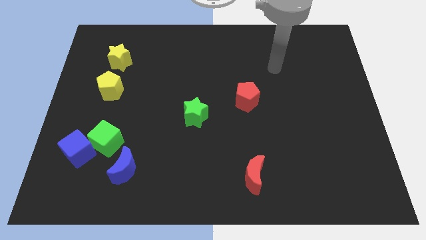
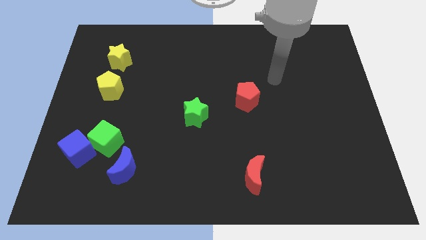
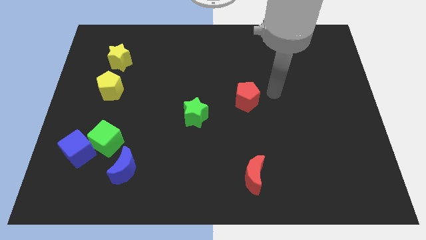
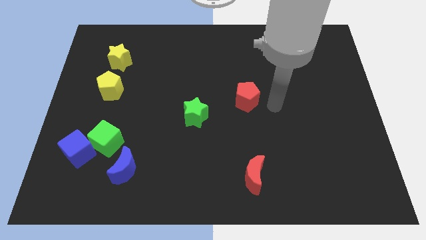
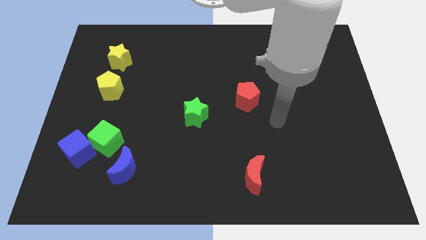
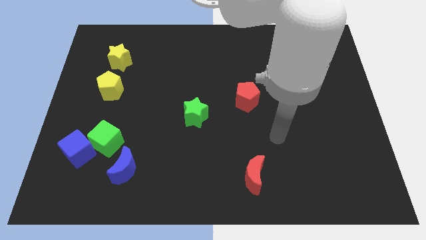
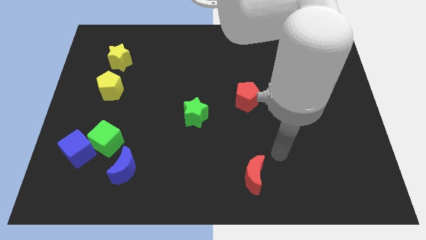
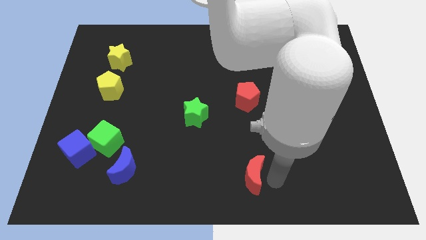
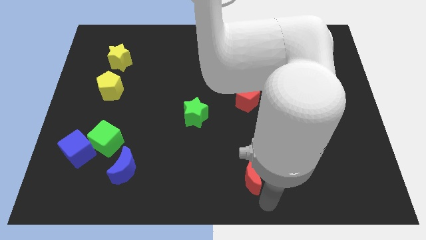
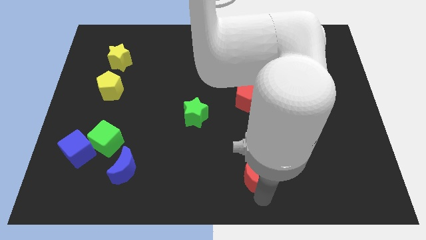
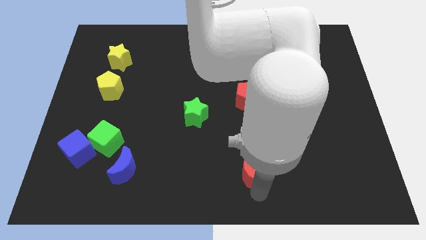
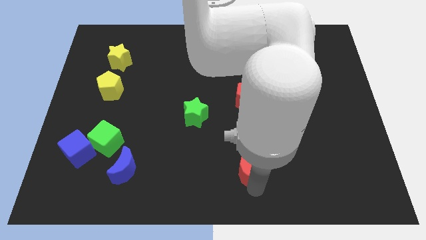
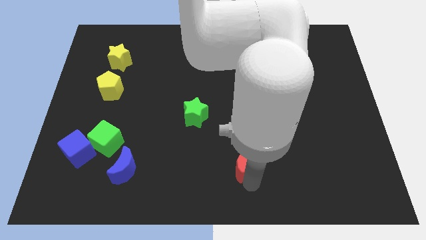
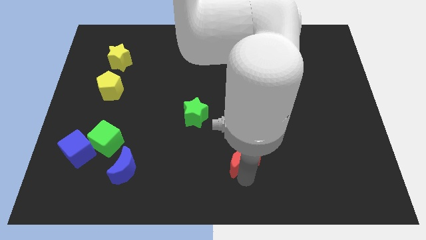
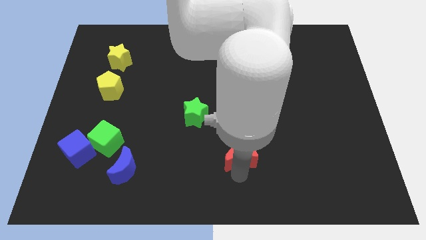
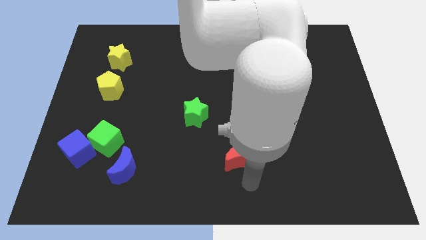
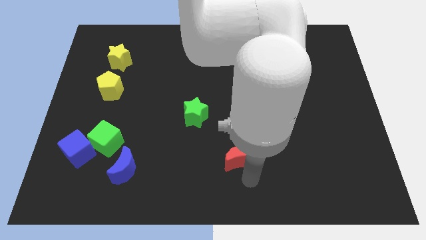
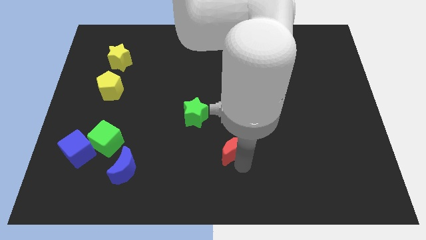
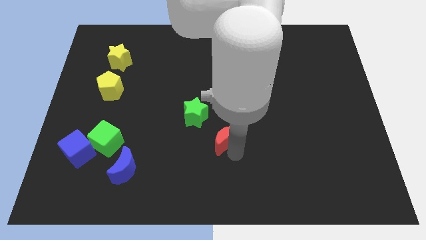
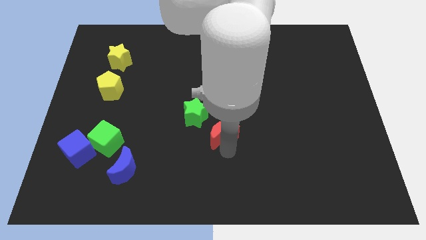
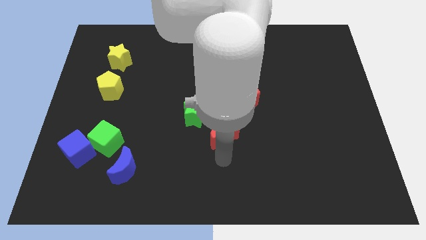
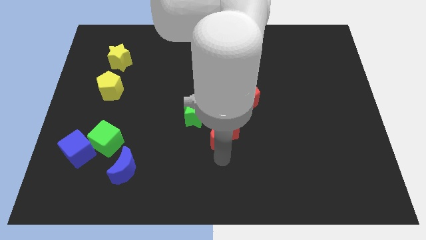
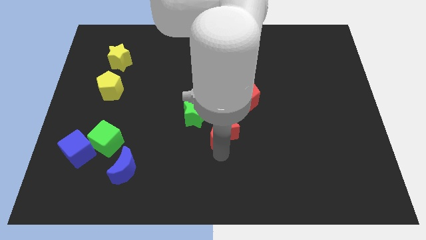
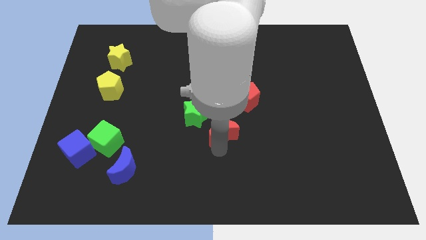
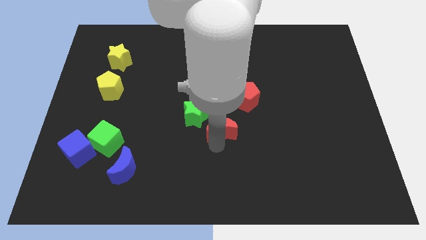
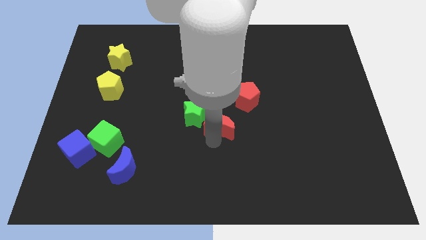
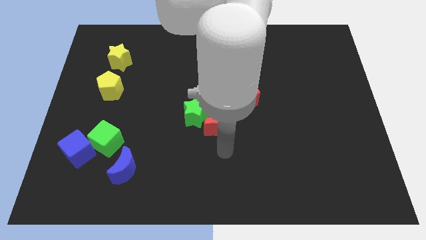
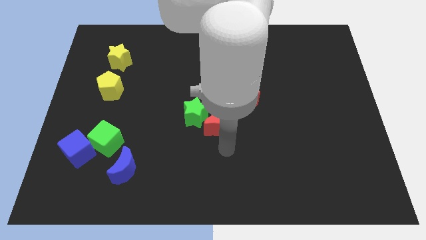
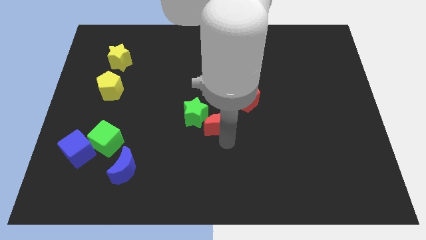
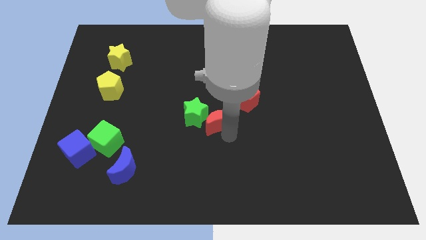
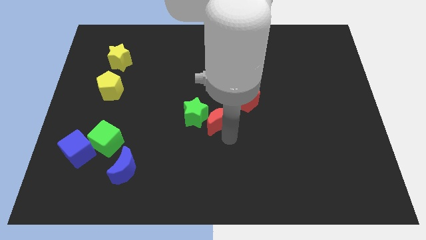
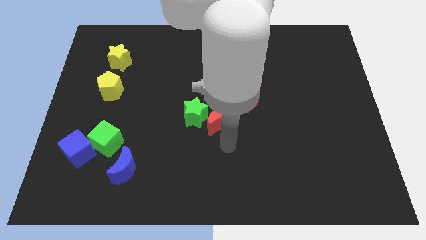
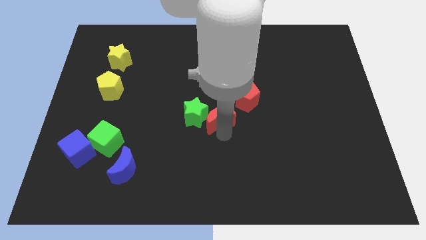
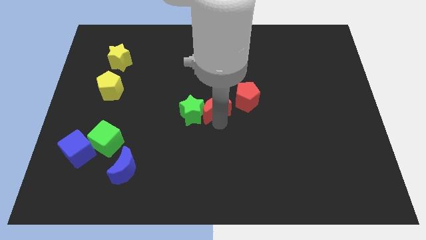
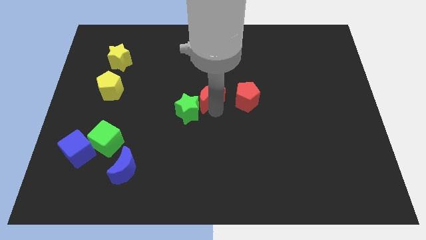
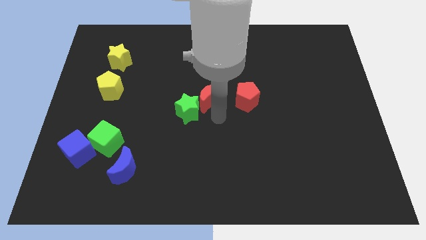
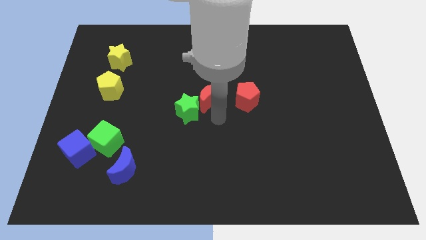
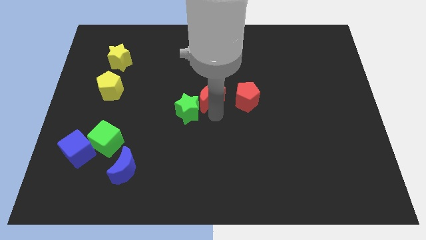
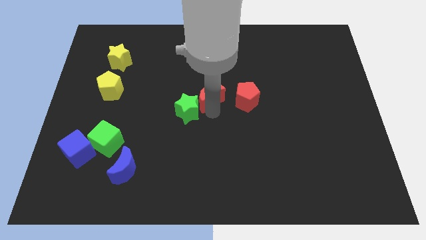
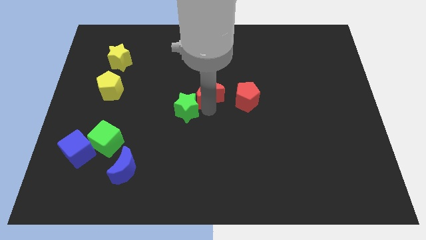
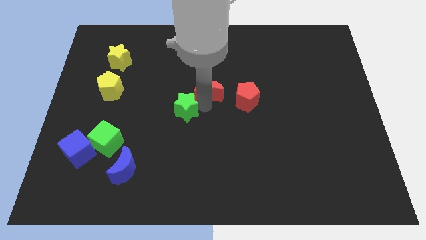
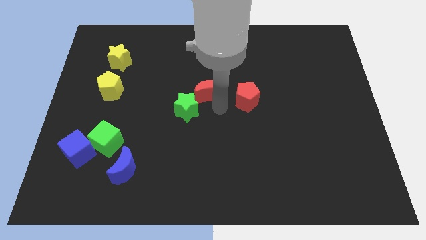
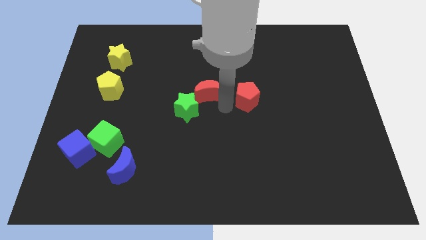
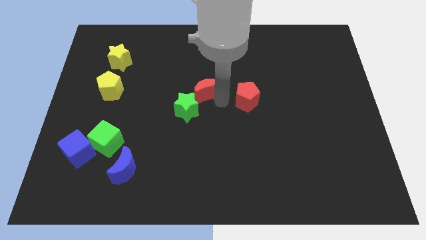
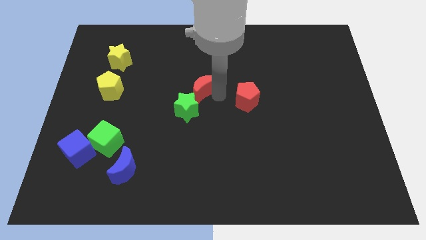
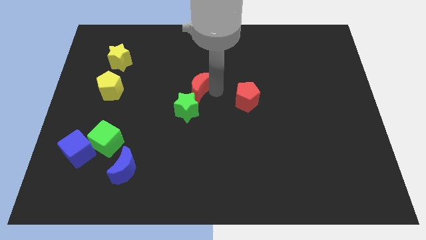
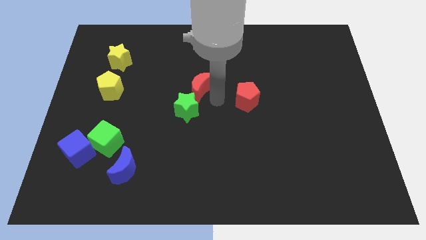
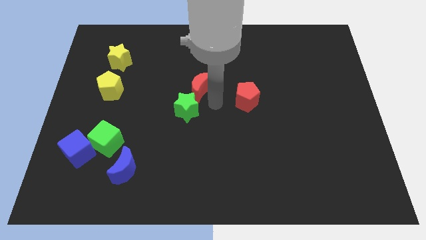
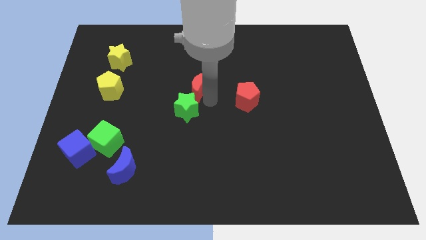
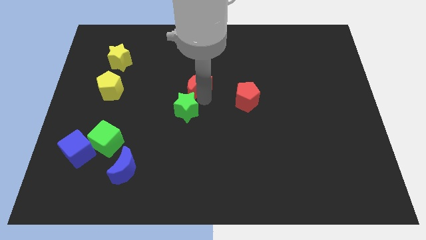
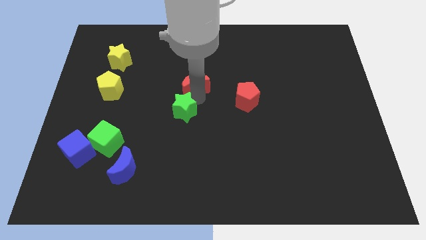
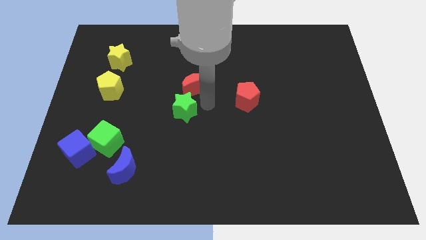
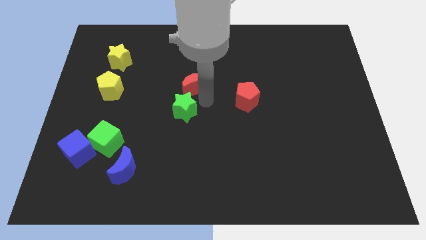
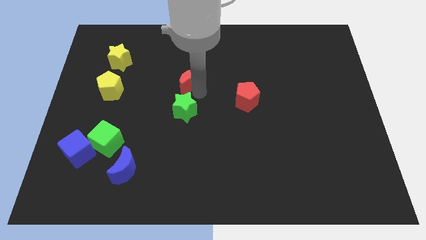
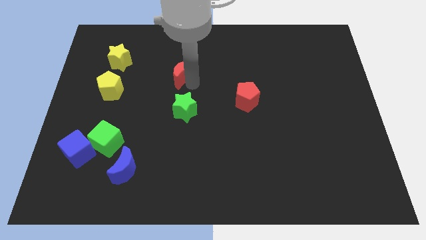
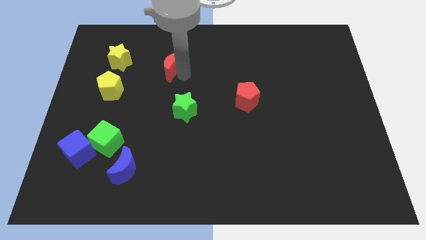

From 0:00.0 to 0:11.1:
put the red moon right of the yellow star

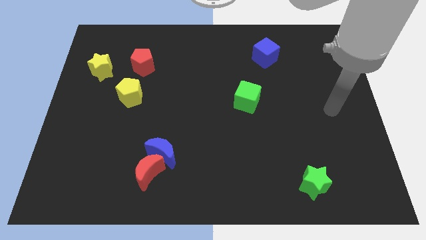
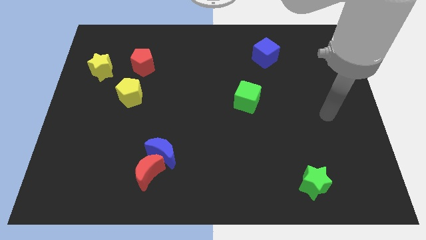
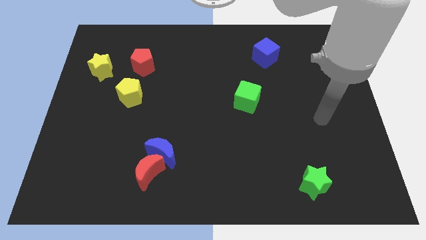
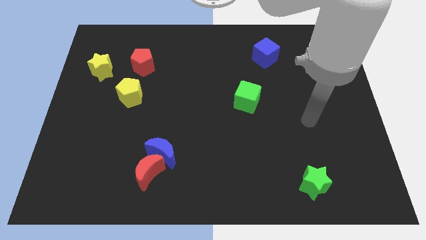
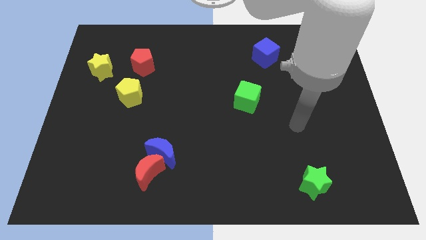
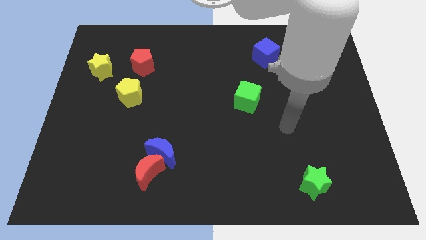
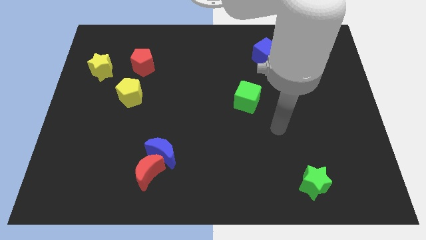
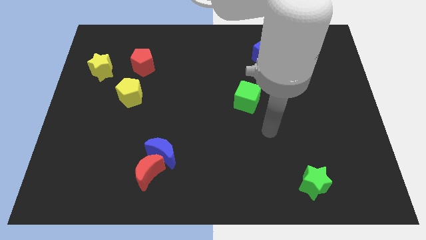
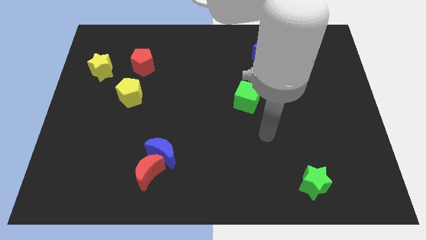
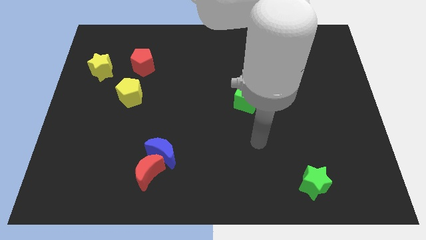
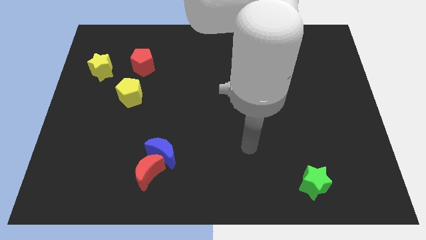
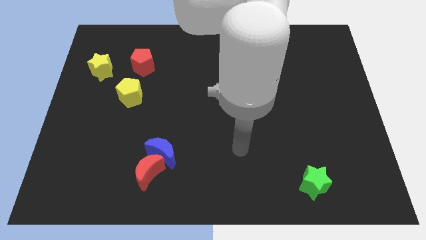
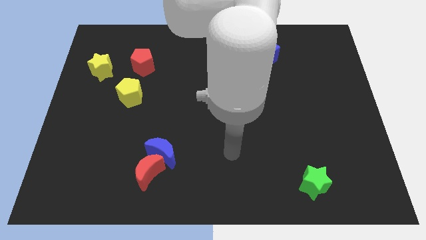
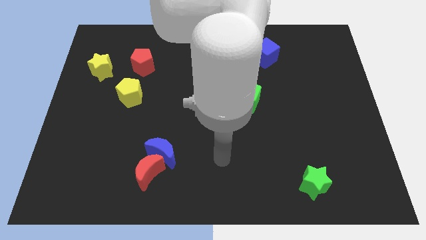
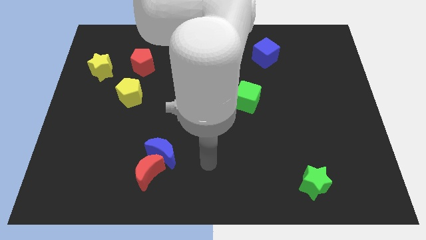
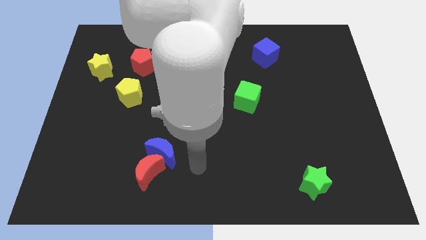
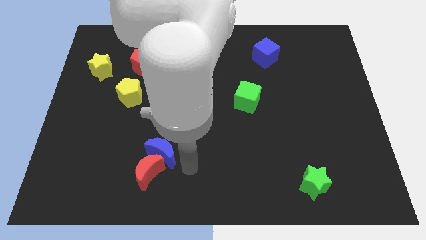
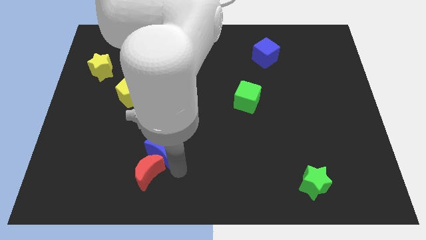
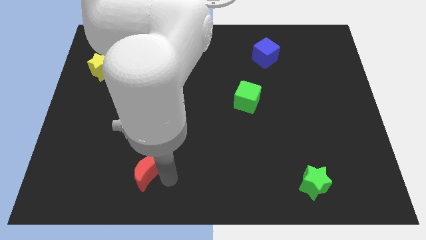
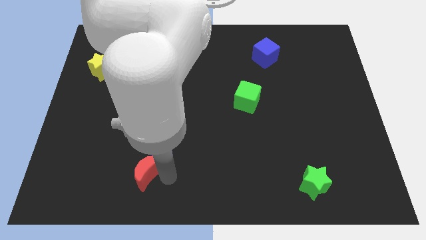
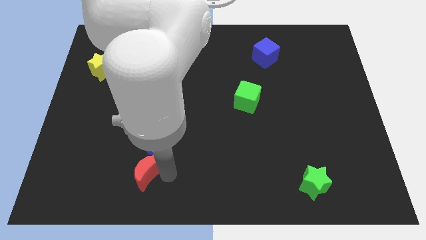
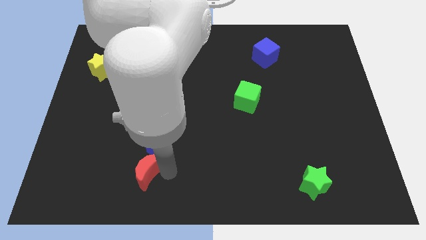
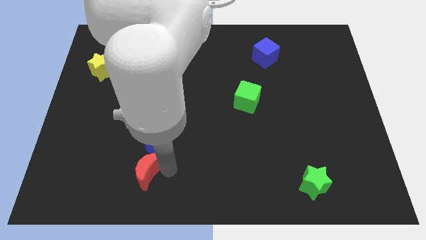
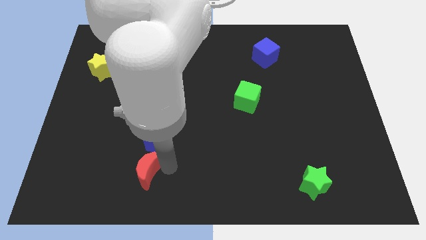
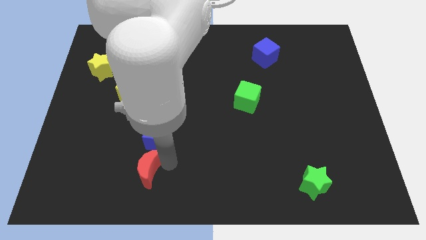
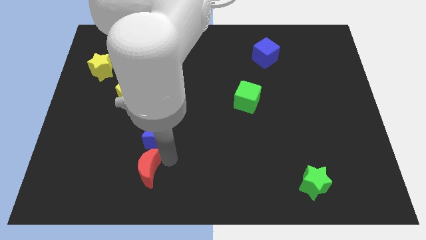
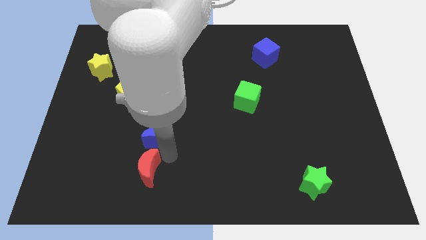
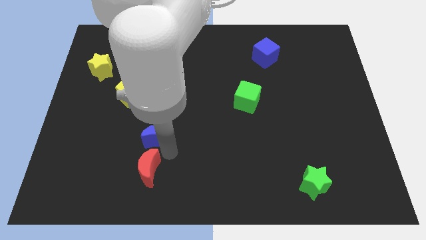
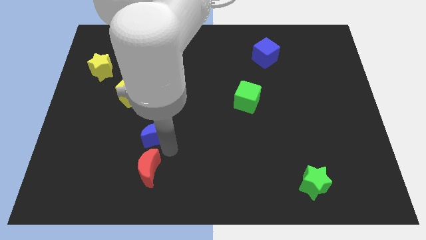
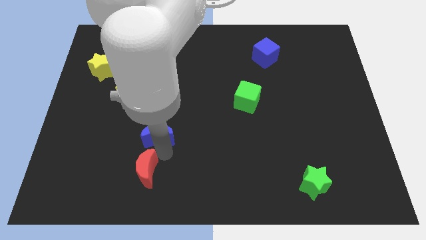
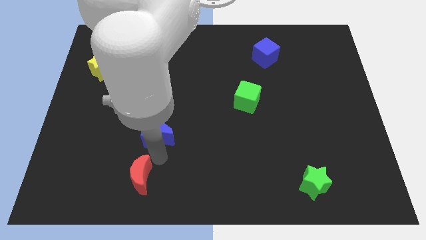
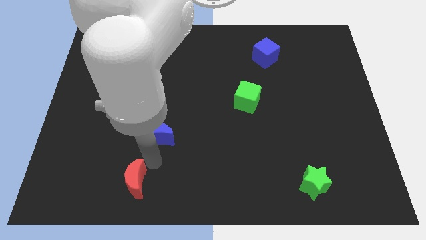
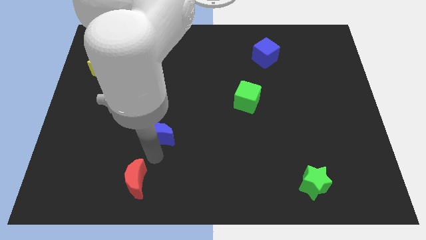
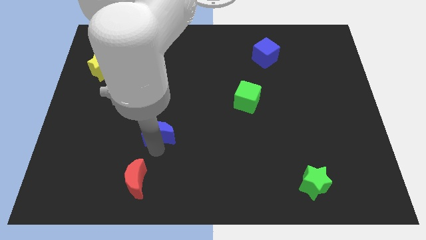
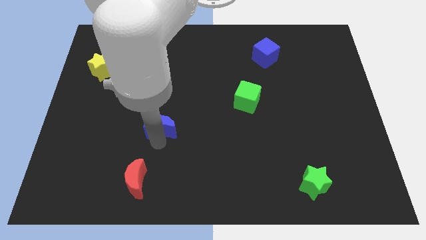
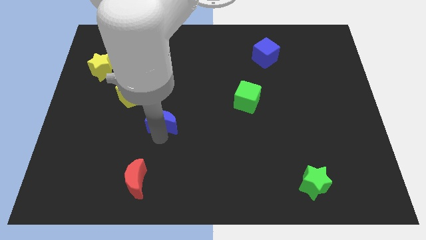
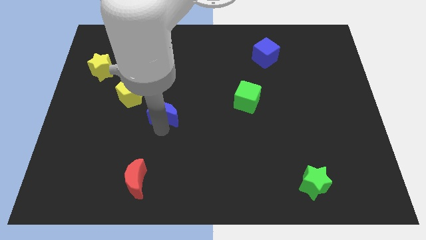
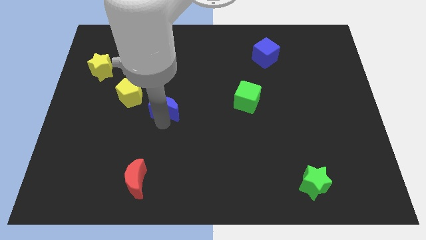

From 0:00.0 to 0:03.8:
slide the blue moon right of the yellow pentagon
